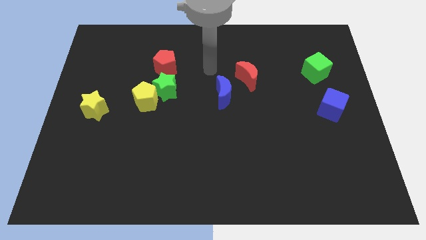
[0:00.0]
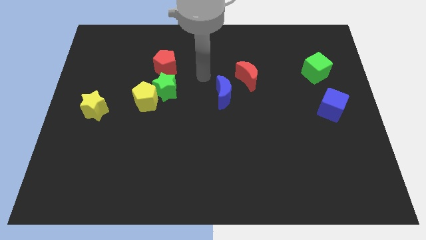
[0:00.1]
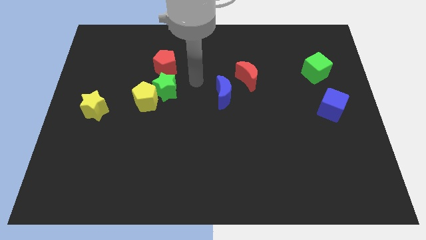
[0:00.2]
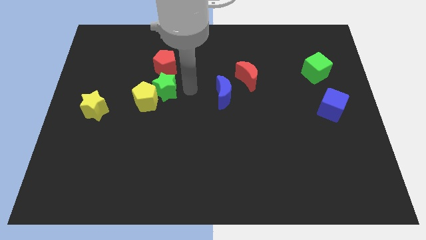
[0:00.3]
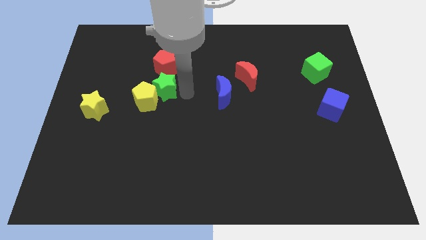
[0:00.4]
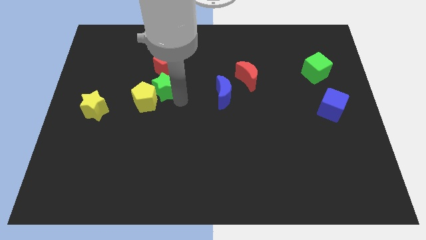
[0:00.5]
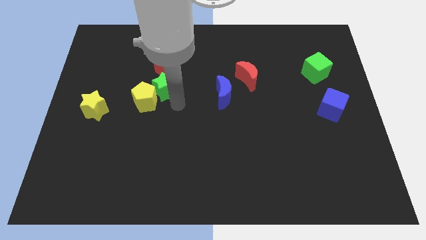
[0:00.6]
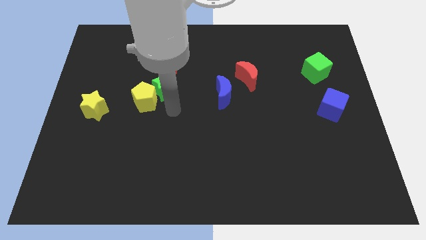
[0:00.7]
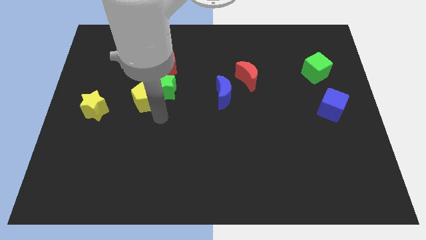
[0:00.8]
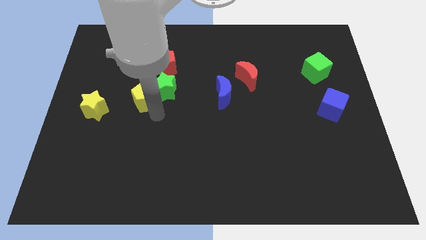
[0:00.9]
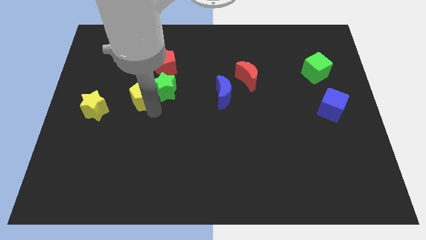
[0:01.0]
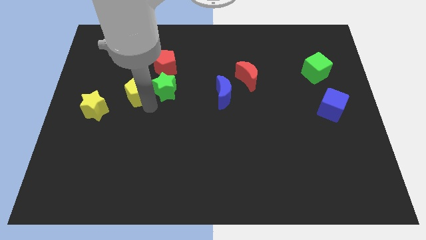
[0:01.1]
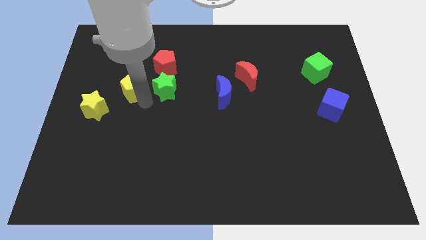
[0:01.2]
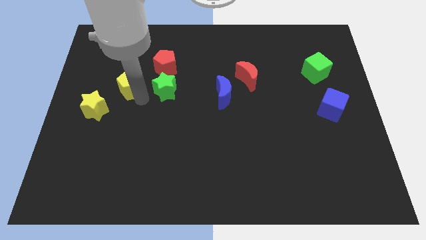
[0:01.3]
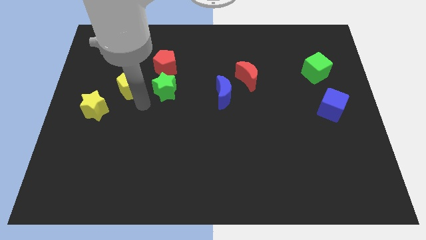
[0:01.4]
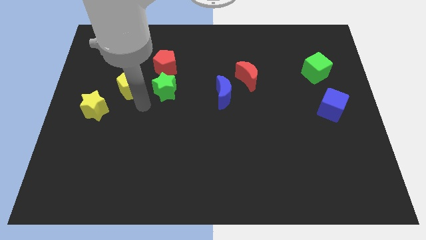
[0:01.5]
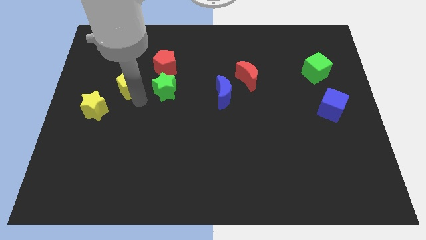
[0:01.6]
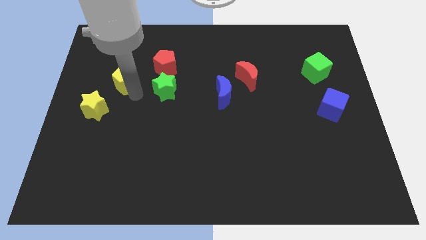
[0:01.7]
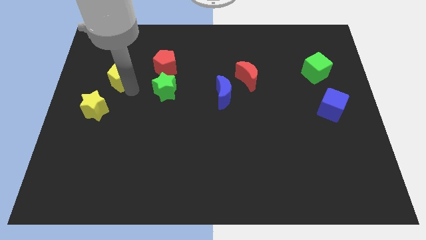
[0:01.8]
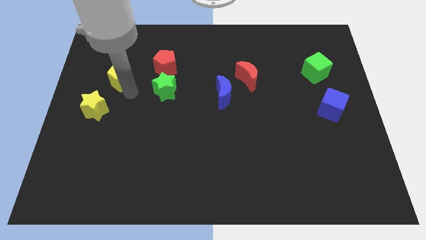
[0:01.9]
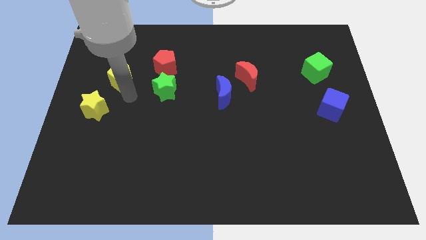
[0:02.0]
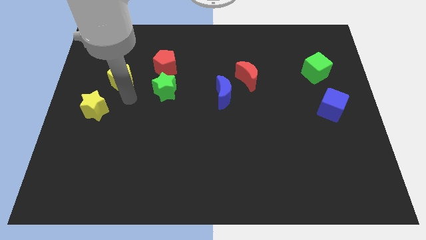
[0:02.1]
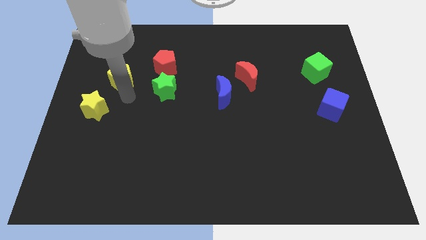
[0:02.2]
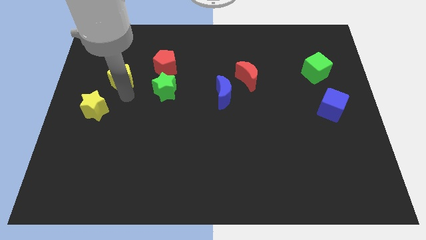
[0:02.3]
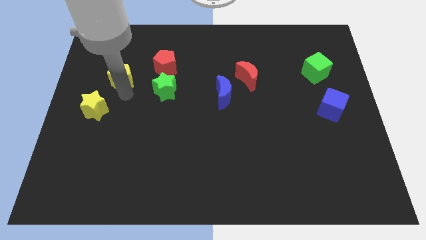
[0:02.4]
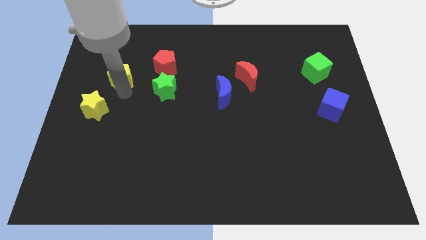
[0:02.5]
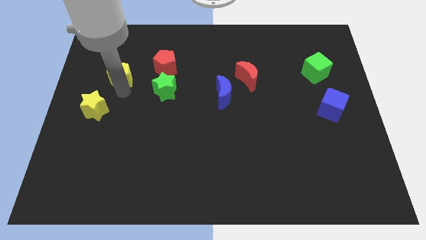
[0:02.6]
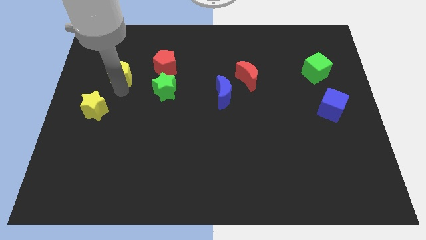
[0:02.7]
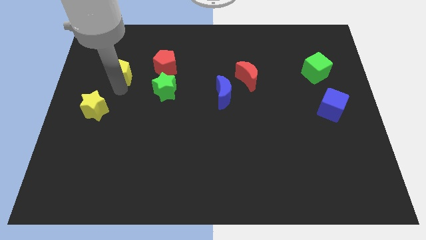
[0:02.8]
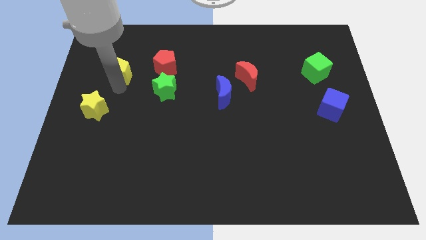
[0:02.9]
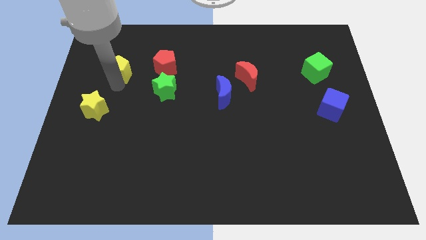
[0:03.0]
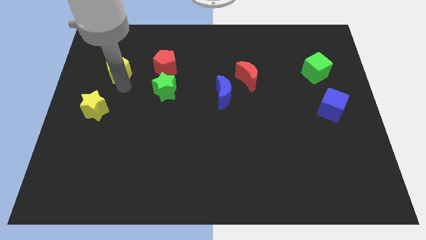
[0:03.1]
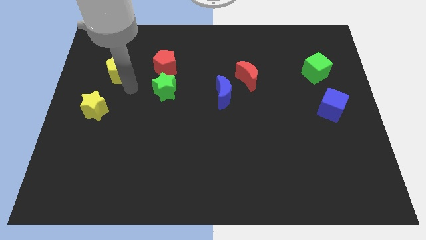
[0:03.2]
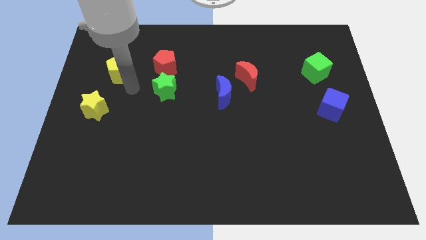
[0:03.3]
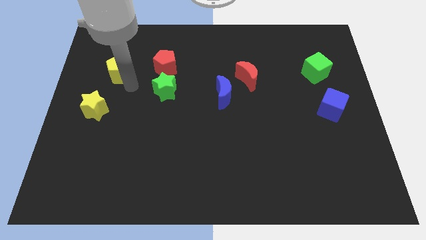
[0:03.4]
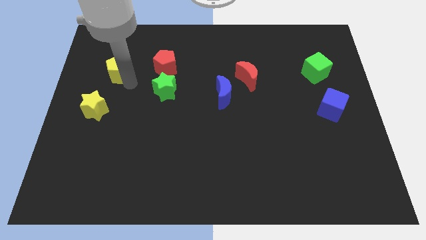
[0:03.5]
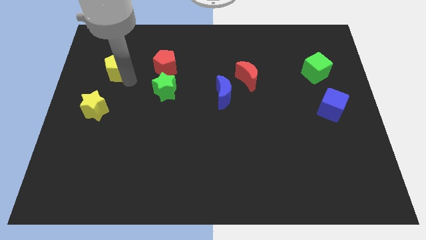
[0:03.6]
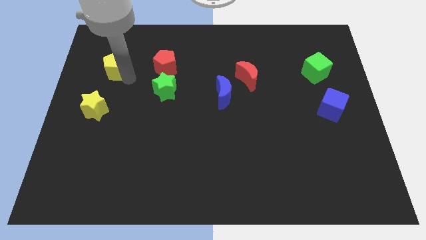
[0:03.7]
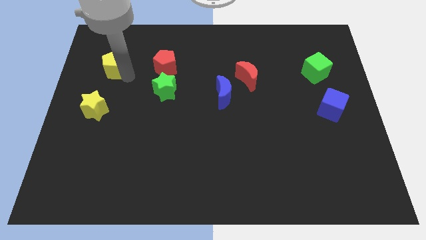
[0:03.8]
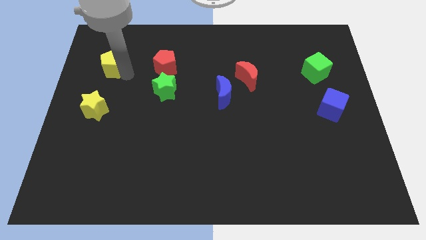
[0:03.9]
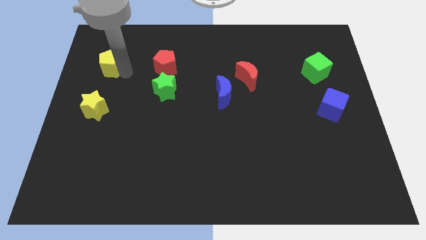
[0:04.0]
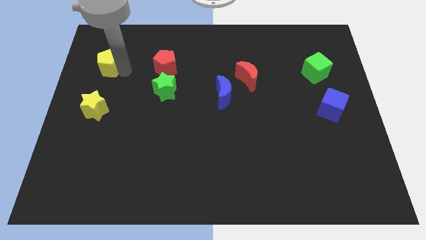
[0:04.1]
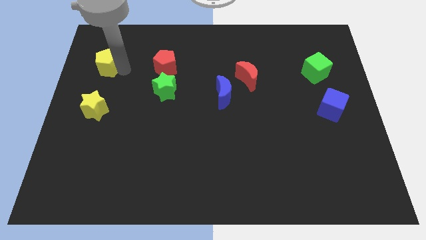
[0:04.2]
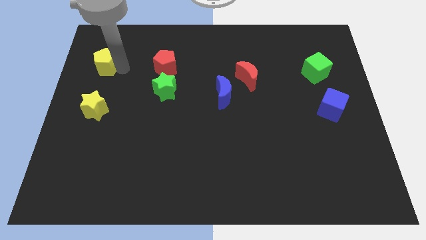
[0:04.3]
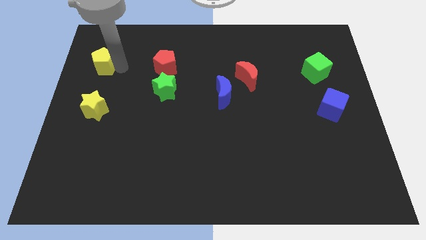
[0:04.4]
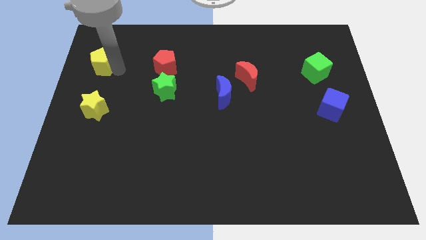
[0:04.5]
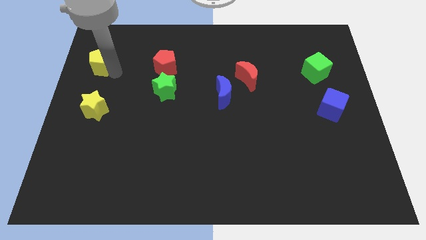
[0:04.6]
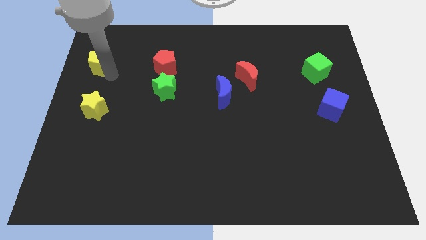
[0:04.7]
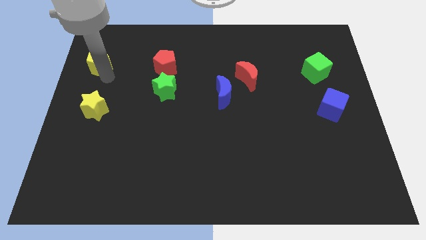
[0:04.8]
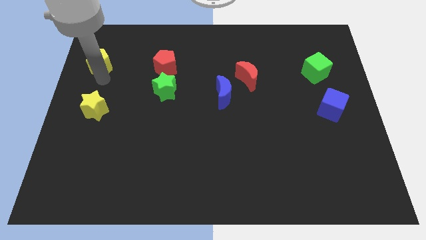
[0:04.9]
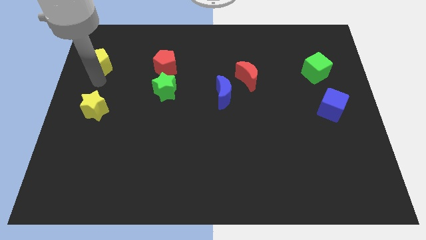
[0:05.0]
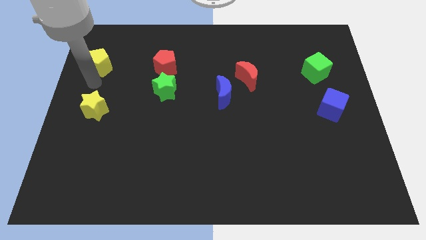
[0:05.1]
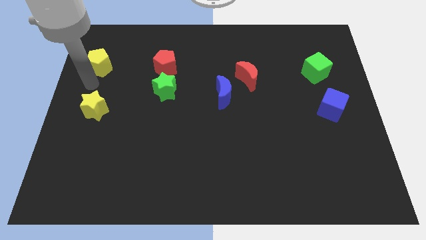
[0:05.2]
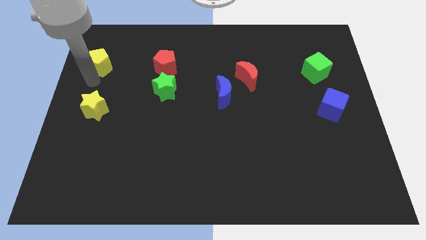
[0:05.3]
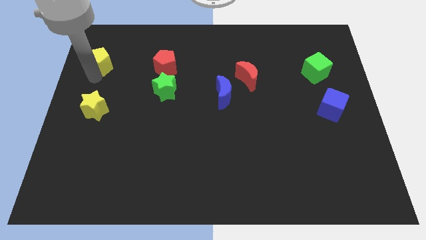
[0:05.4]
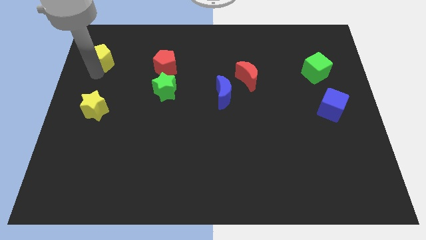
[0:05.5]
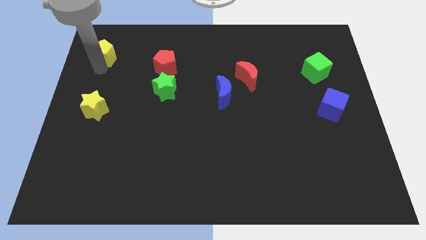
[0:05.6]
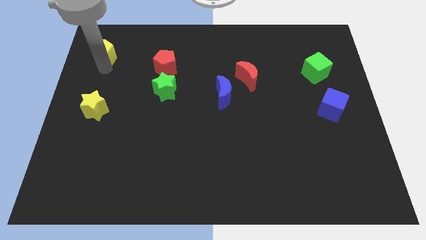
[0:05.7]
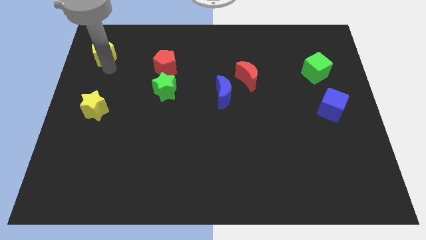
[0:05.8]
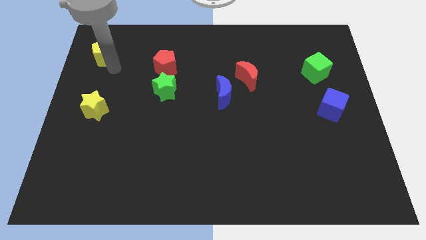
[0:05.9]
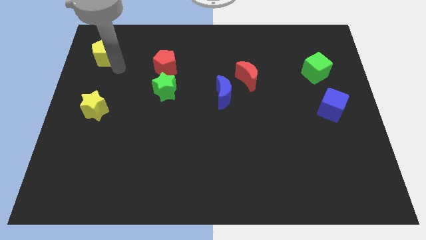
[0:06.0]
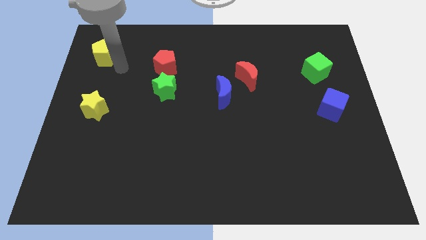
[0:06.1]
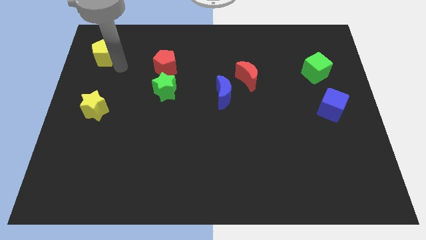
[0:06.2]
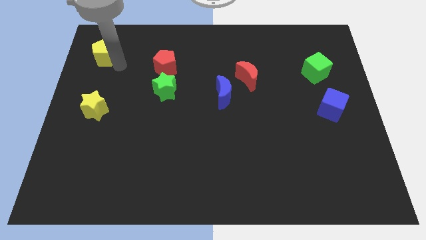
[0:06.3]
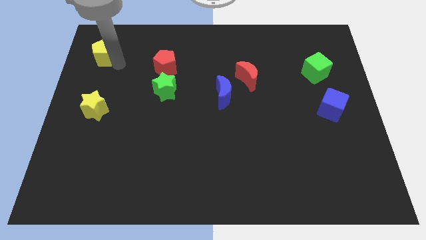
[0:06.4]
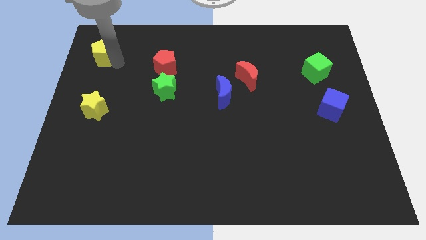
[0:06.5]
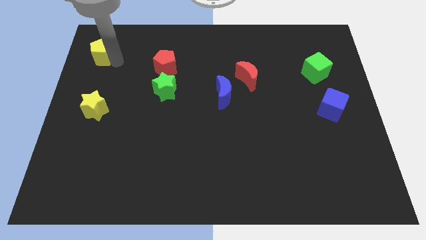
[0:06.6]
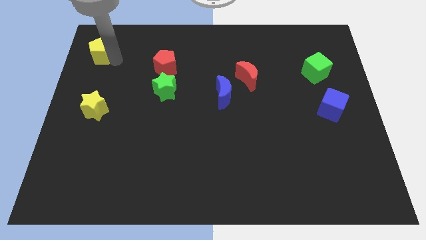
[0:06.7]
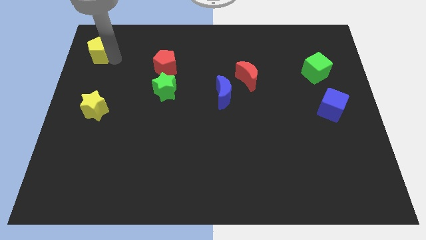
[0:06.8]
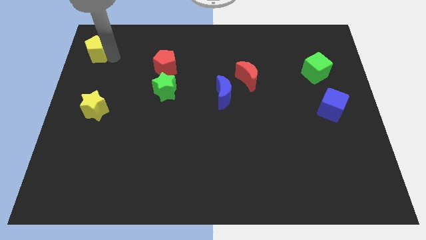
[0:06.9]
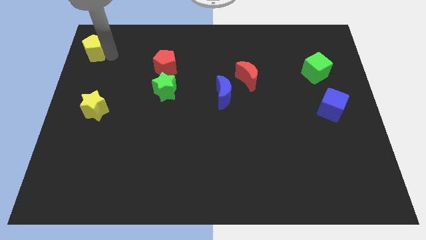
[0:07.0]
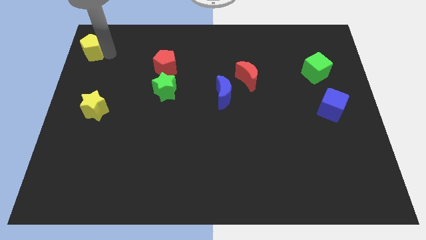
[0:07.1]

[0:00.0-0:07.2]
put the yellow pentagon to the upper left corner
